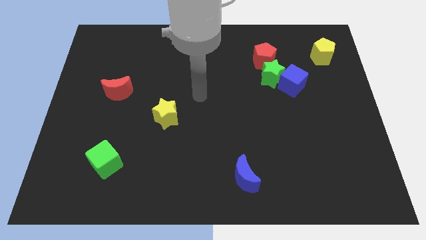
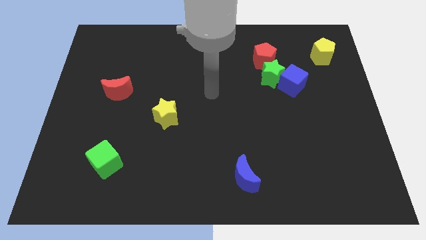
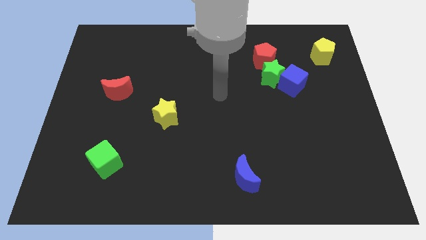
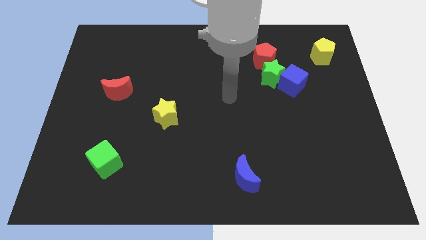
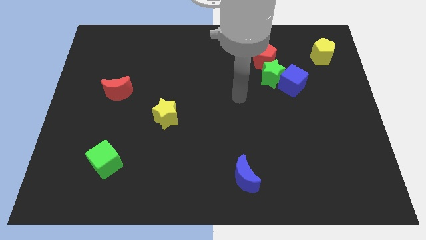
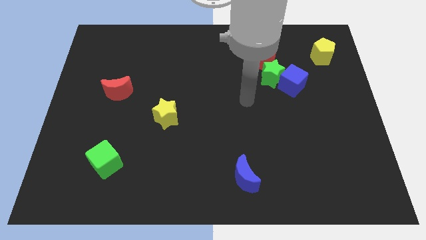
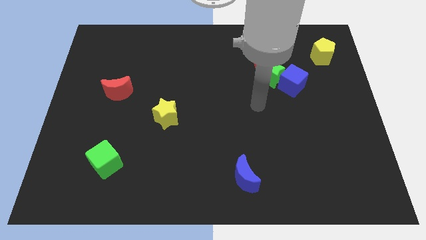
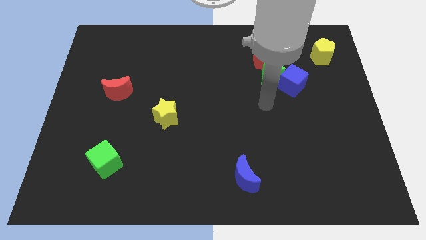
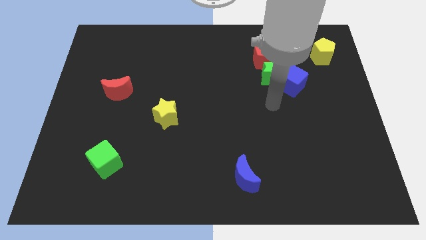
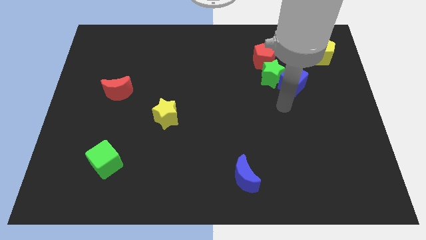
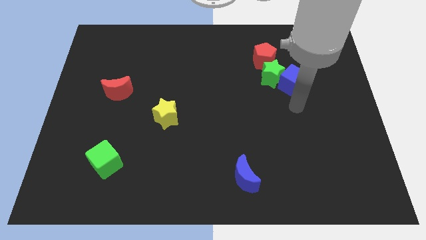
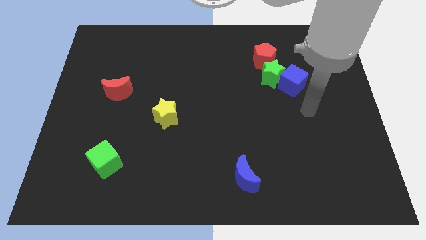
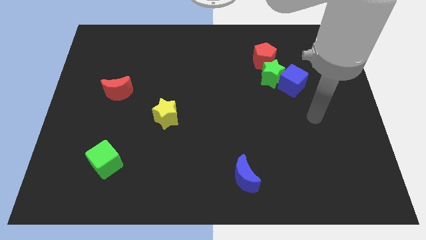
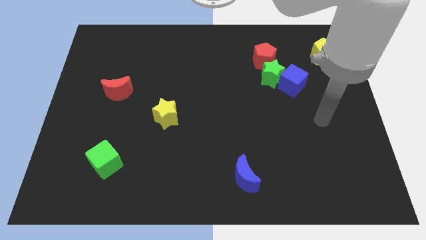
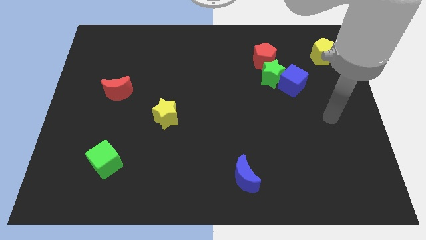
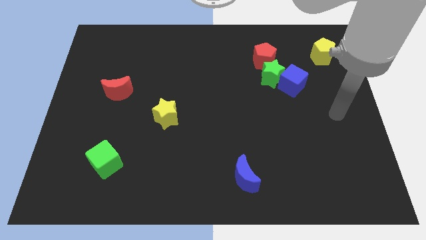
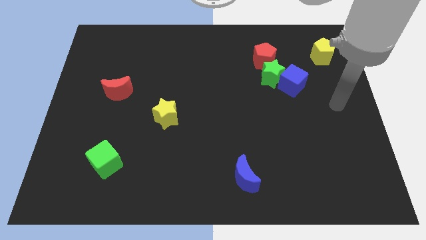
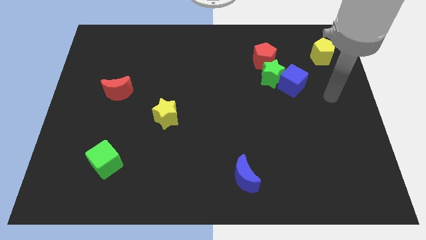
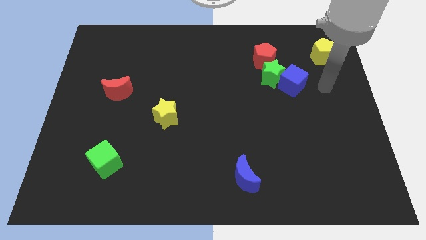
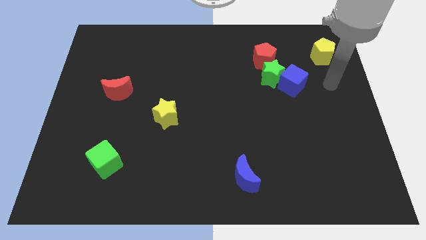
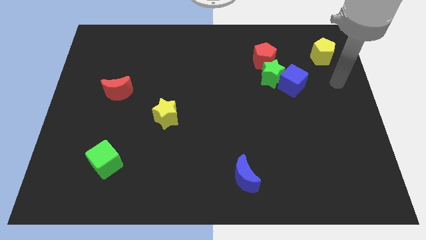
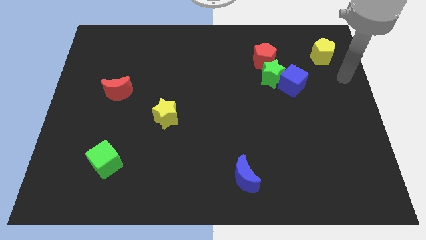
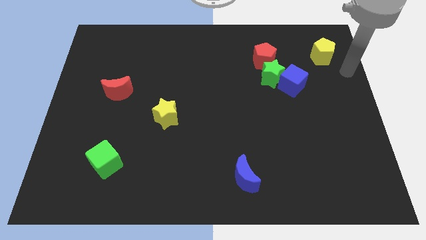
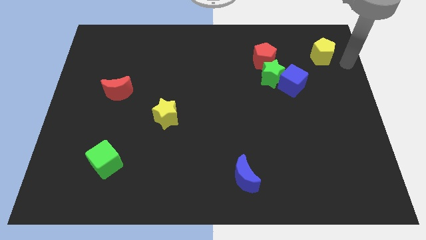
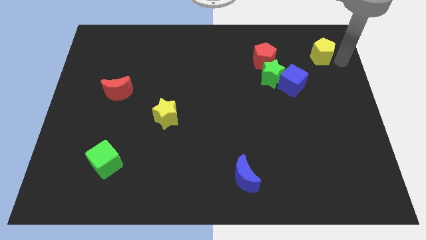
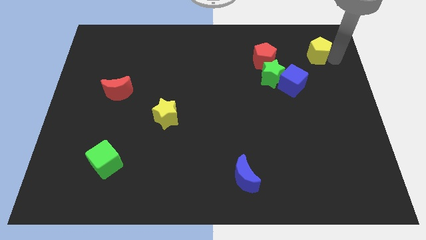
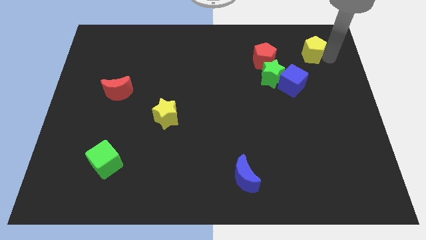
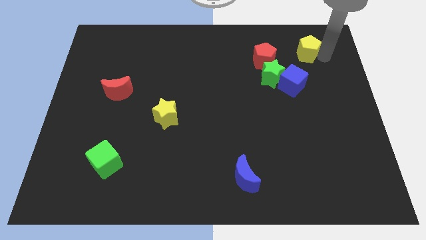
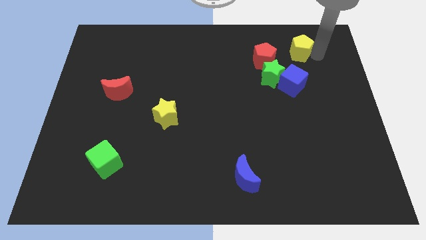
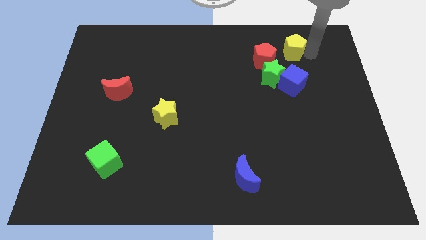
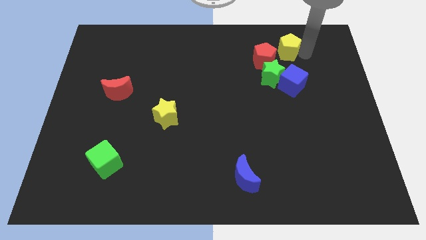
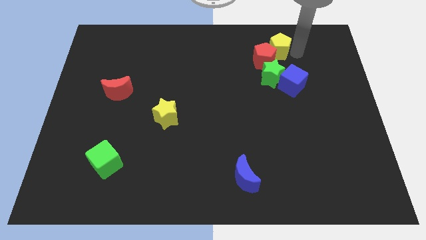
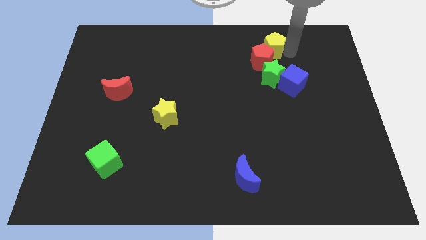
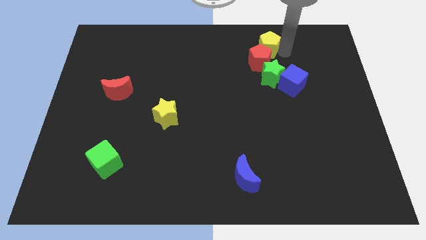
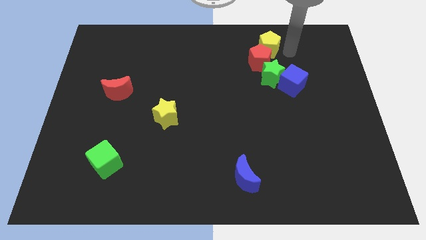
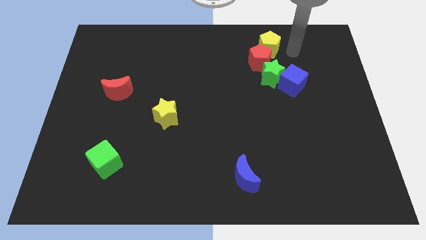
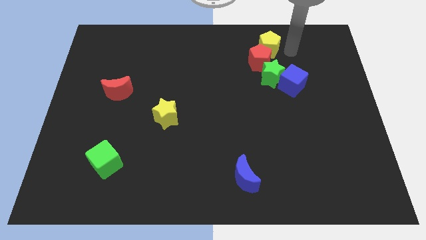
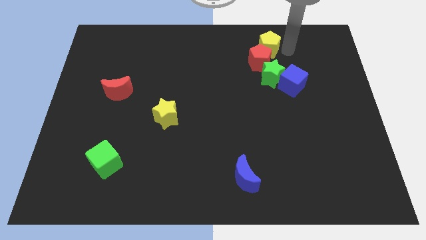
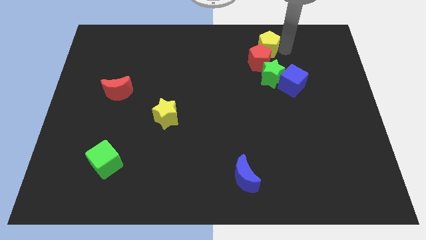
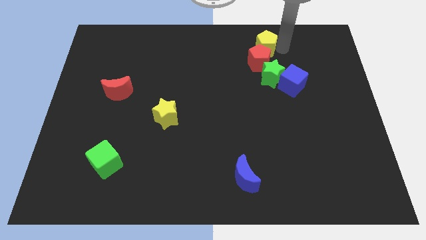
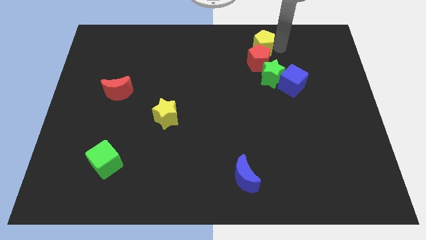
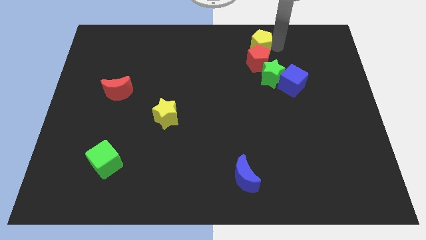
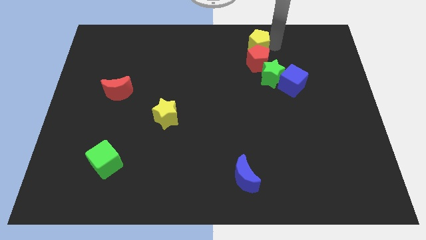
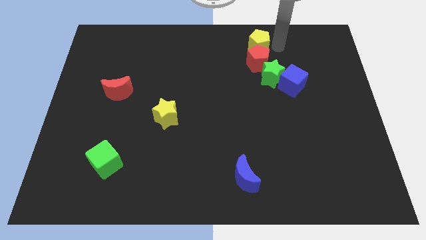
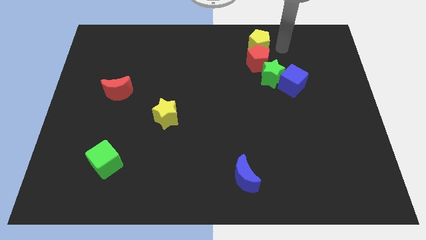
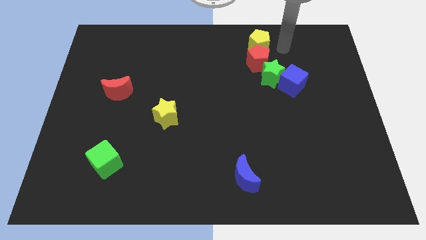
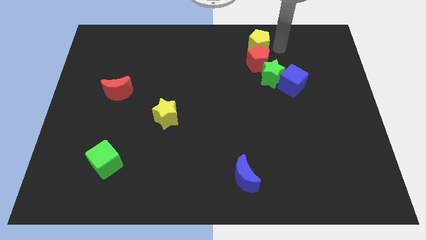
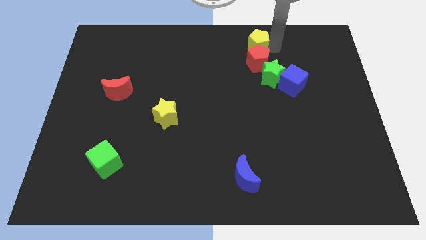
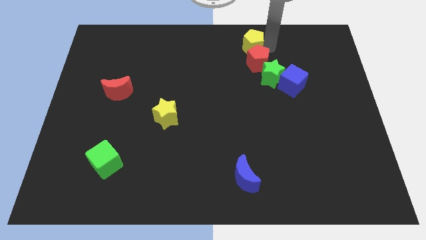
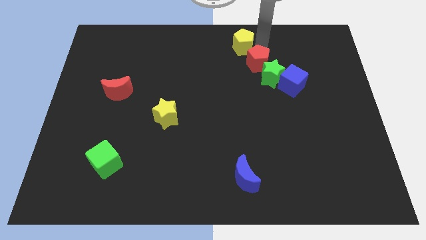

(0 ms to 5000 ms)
move the yellow pentagon to the towards your base

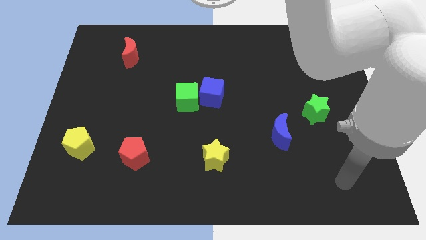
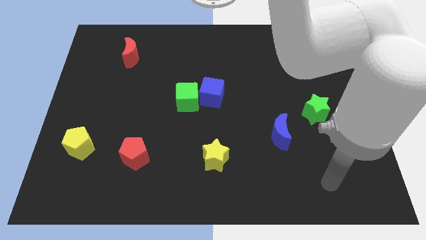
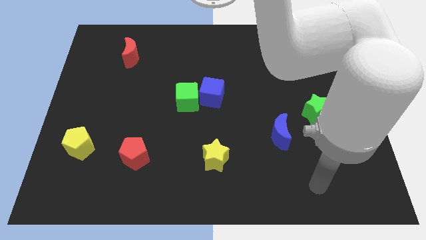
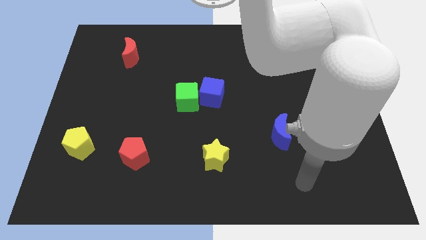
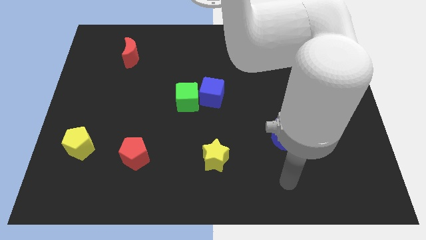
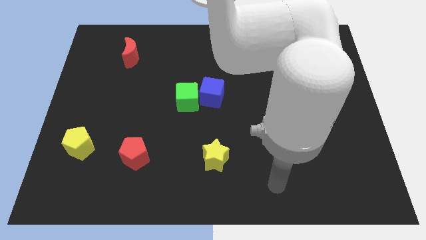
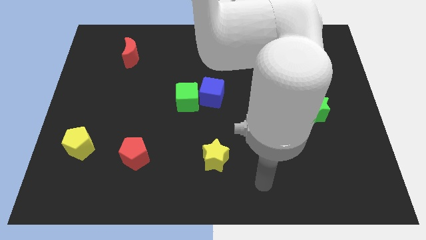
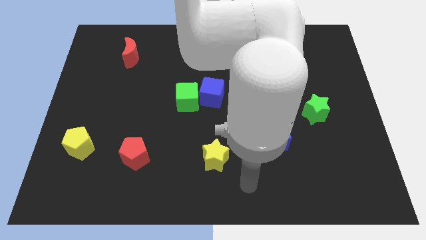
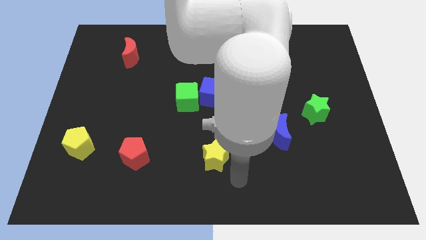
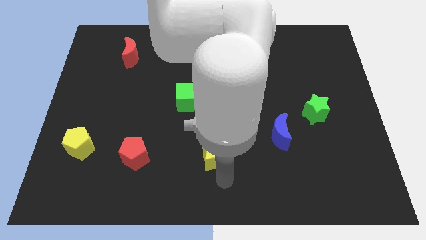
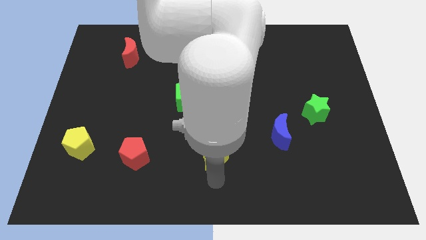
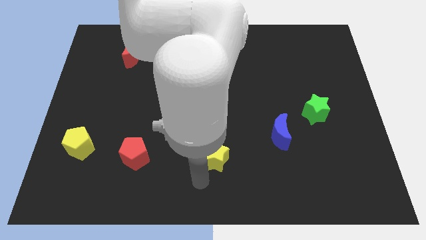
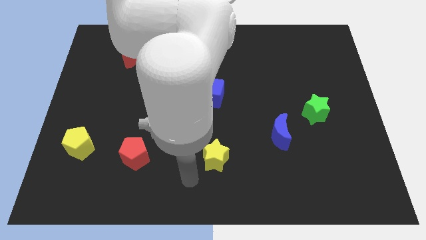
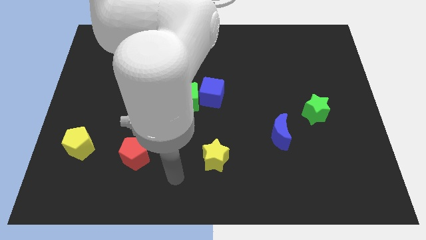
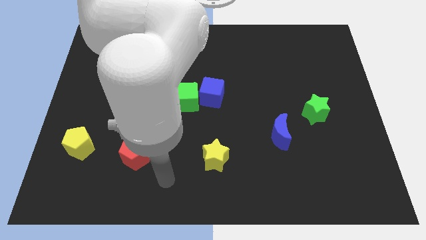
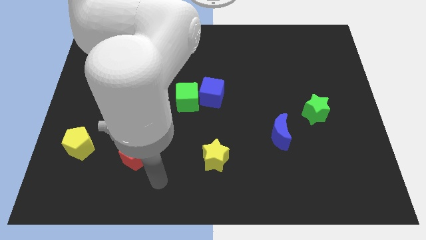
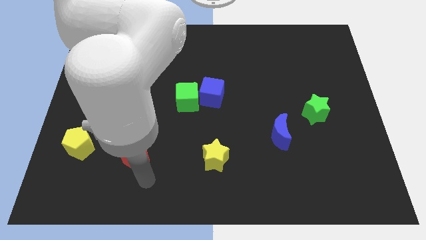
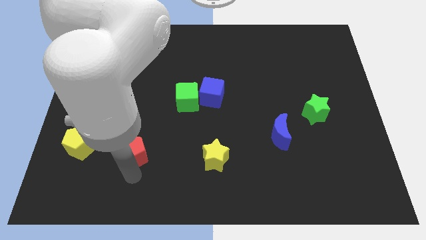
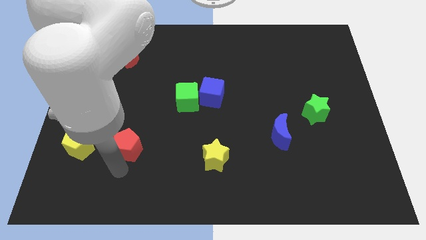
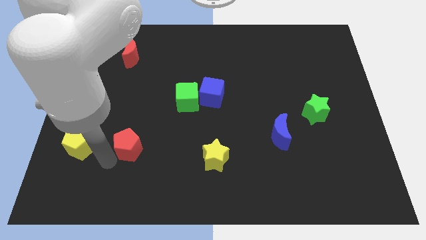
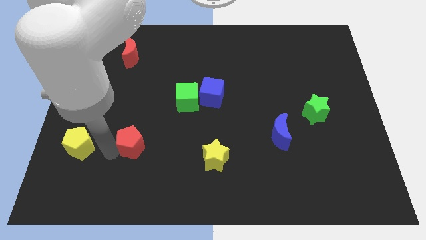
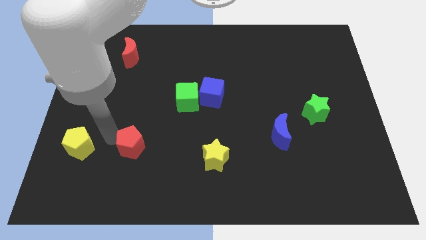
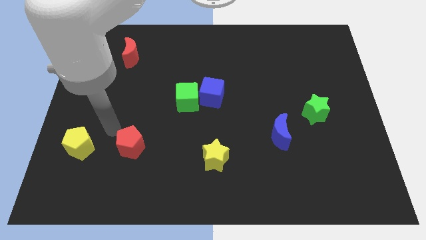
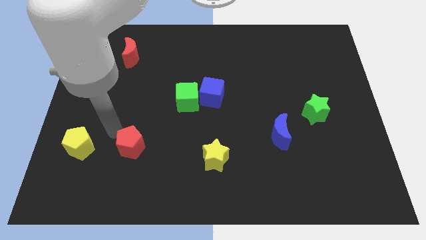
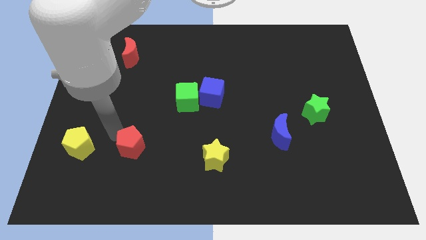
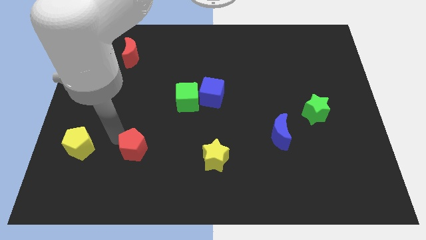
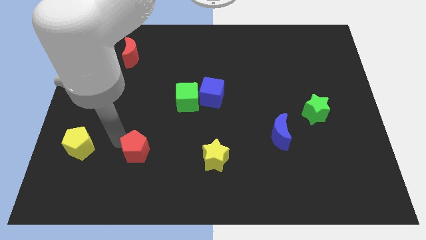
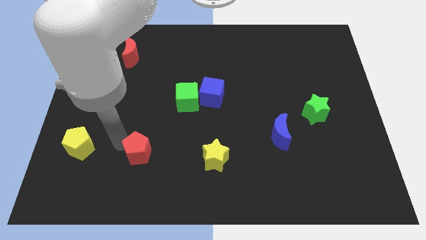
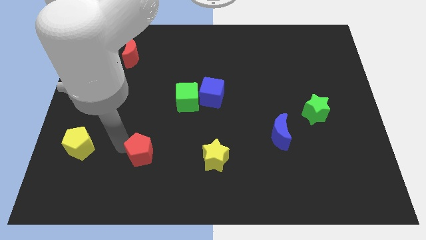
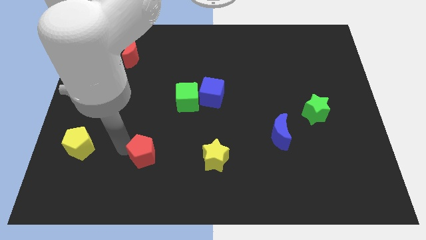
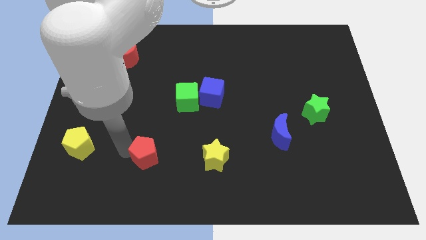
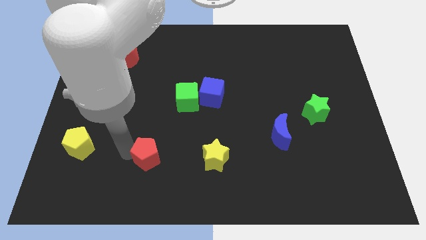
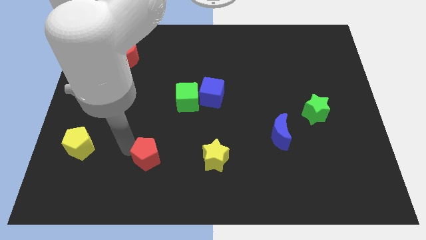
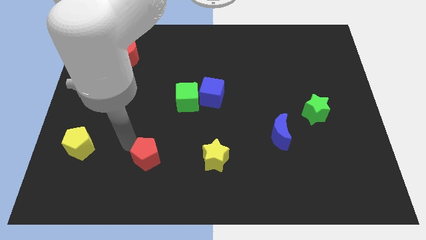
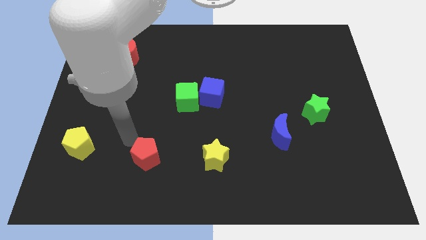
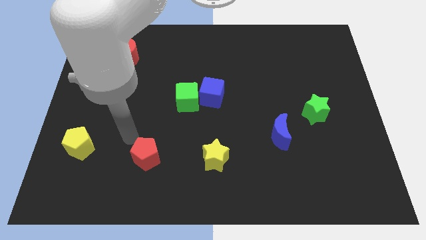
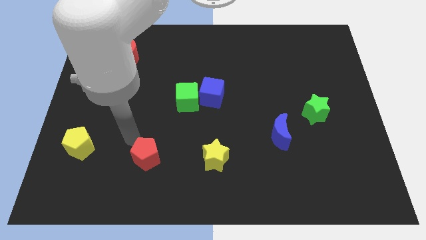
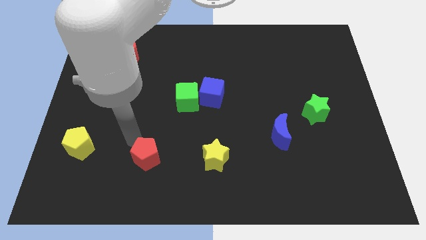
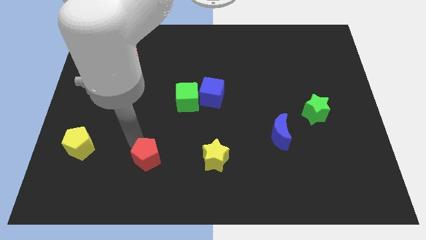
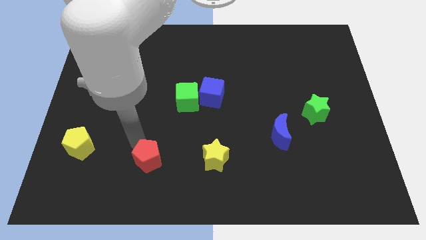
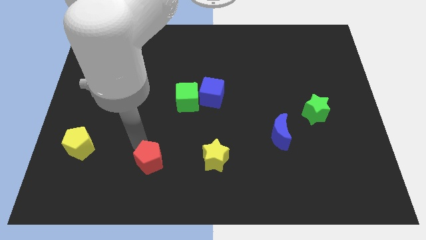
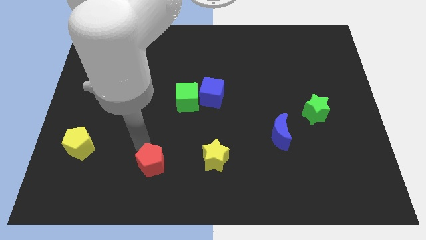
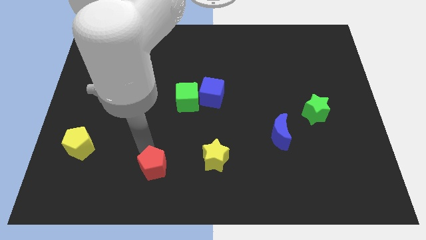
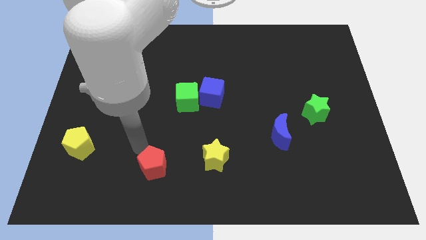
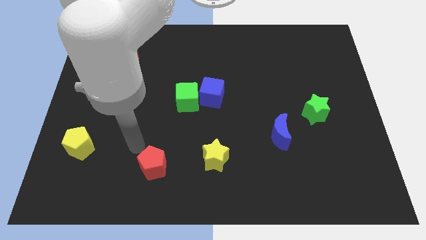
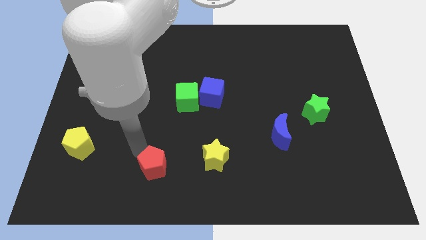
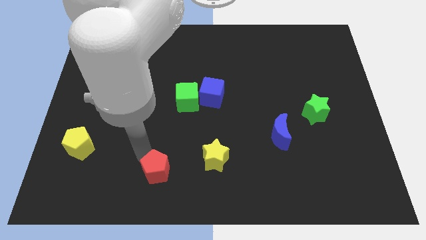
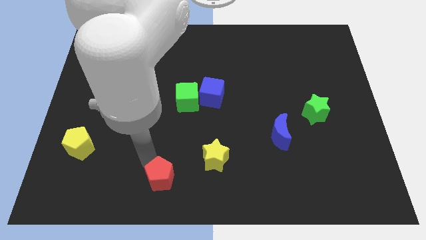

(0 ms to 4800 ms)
slide the red pentagon to the bottom side
